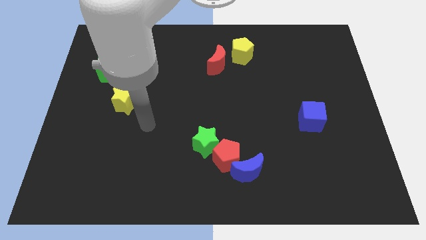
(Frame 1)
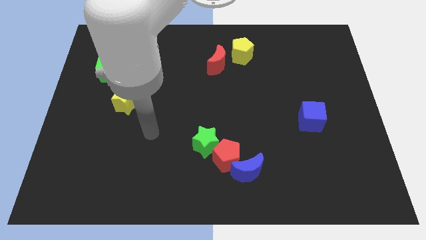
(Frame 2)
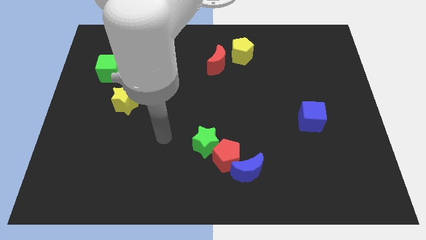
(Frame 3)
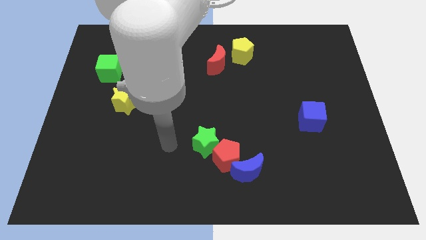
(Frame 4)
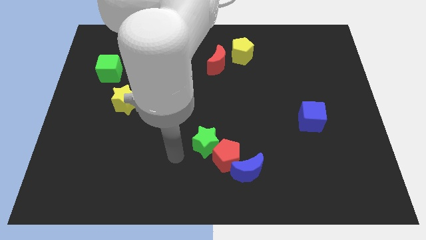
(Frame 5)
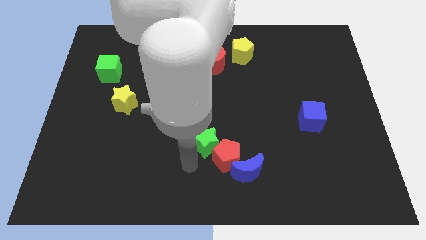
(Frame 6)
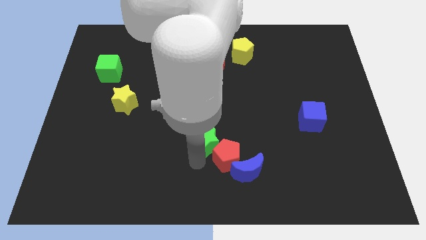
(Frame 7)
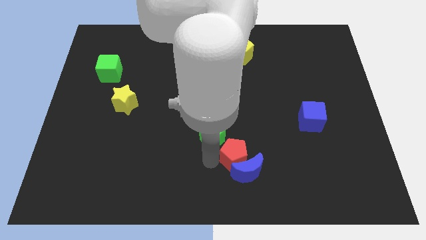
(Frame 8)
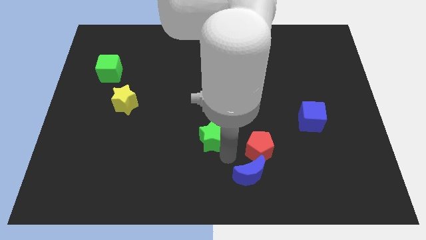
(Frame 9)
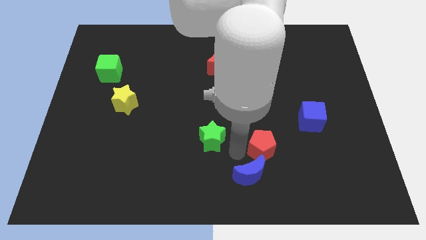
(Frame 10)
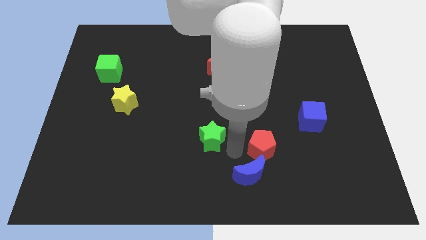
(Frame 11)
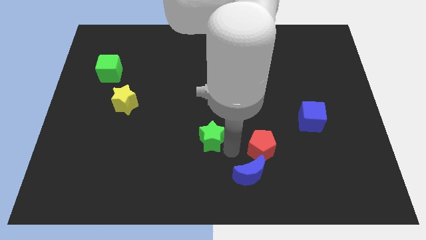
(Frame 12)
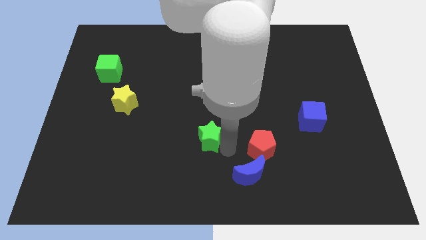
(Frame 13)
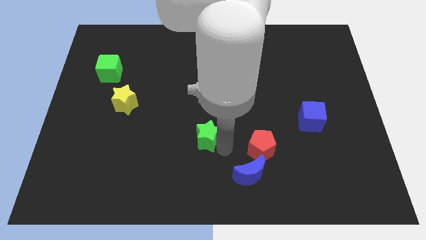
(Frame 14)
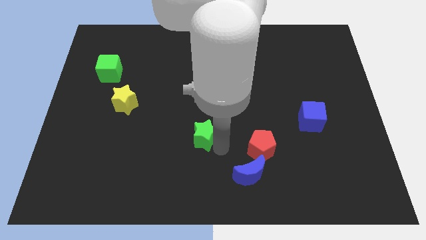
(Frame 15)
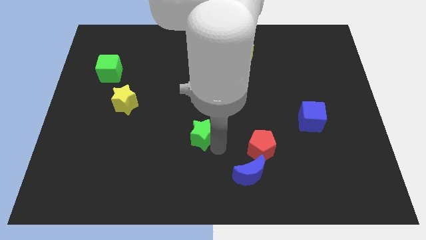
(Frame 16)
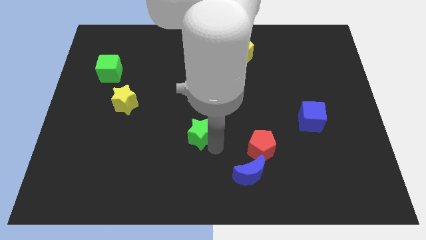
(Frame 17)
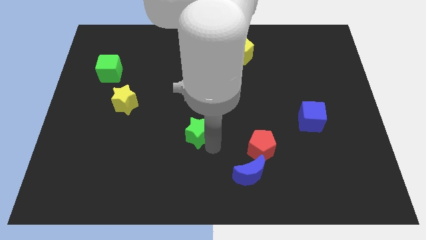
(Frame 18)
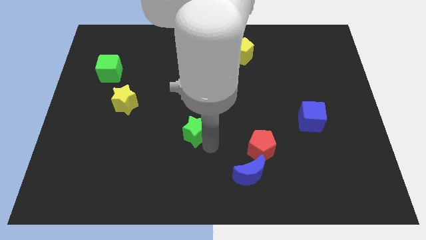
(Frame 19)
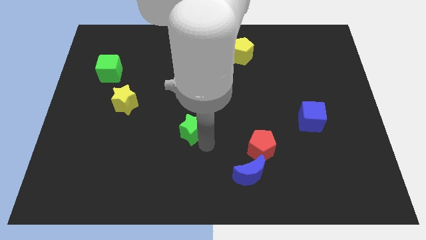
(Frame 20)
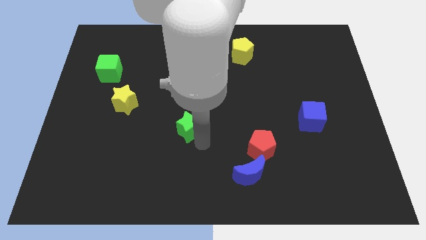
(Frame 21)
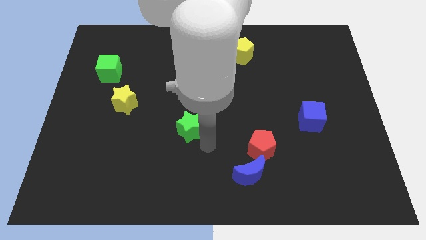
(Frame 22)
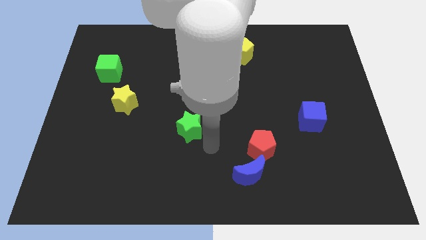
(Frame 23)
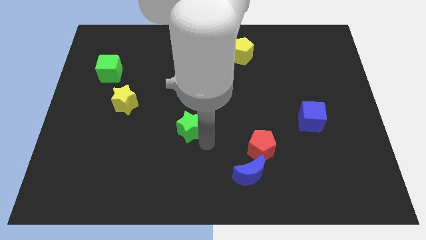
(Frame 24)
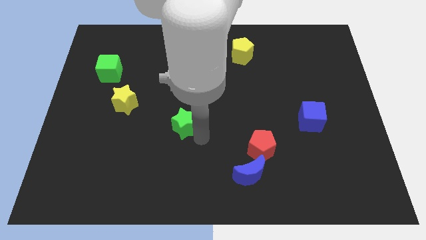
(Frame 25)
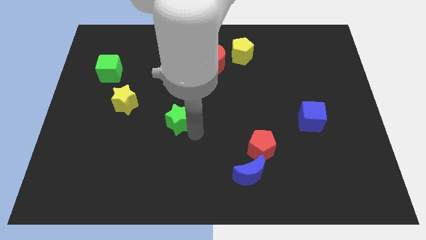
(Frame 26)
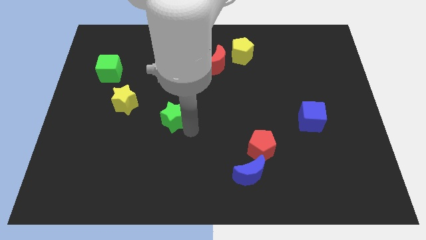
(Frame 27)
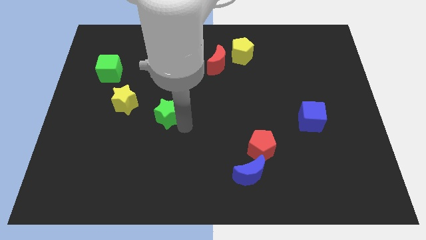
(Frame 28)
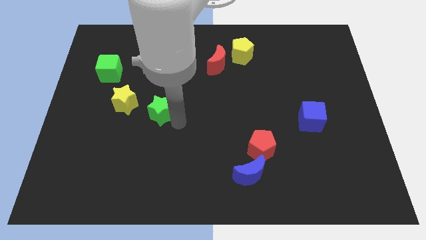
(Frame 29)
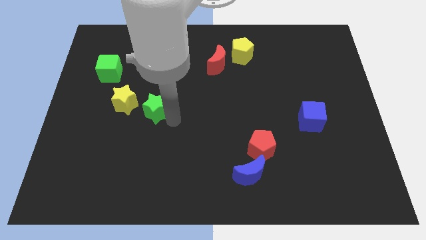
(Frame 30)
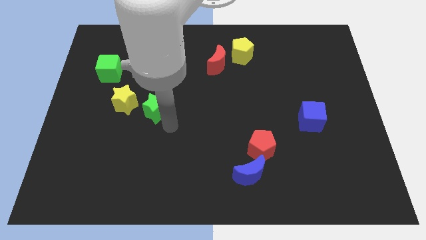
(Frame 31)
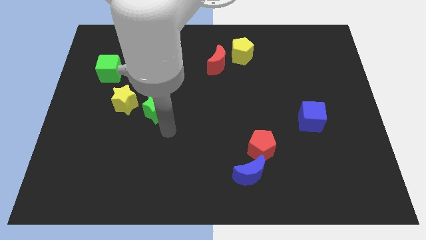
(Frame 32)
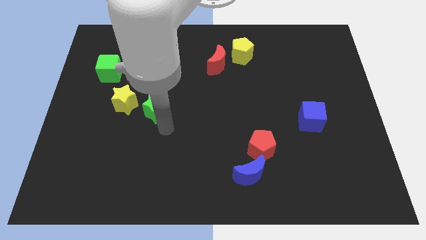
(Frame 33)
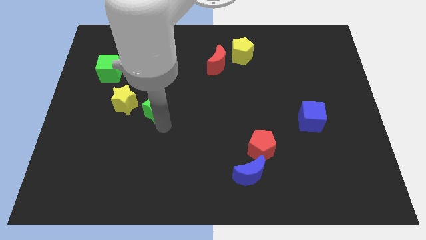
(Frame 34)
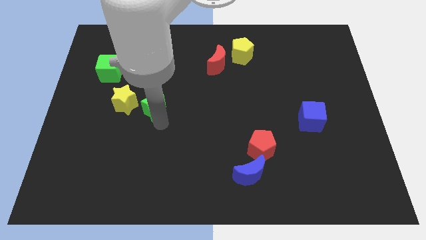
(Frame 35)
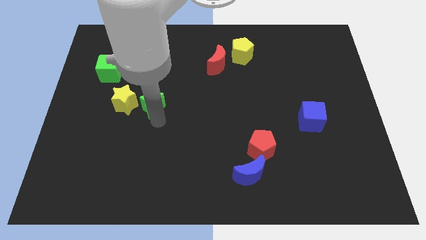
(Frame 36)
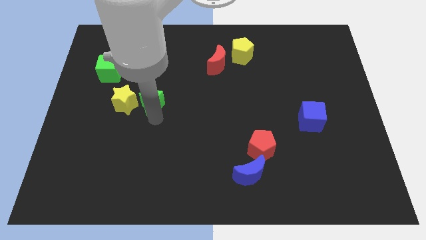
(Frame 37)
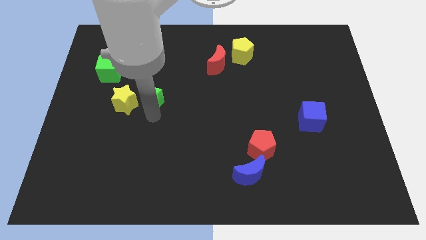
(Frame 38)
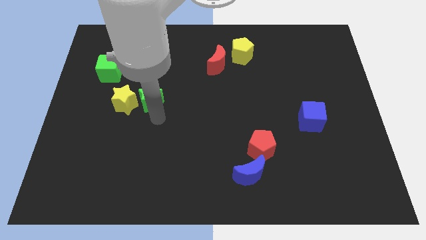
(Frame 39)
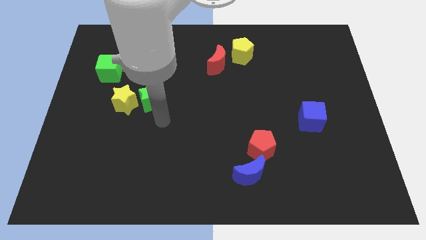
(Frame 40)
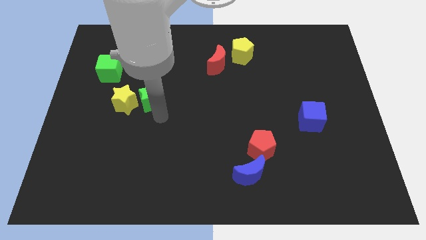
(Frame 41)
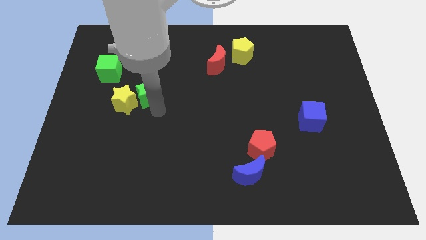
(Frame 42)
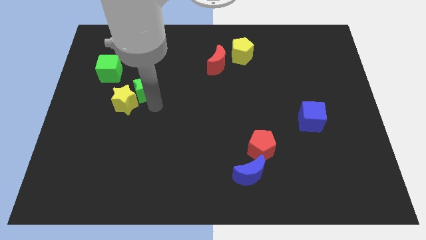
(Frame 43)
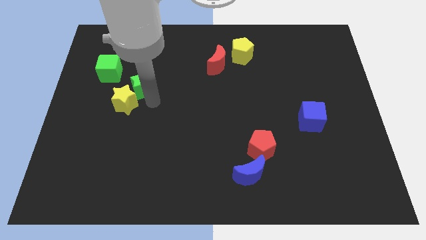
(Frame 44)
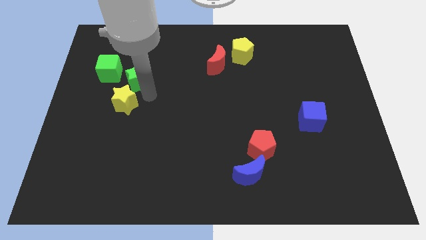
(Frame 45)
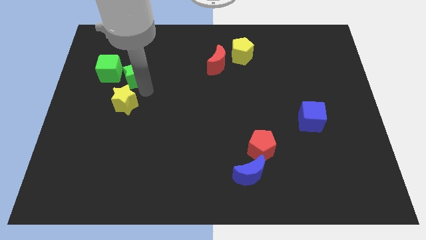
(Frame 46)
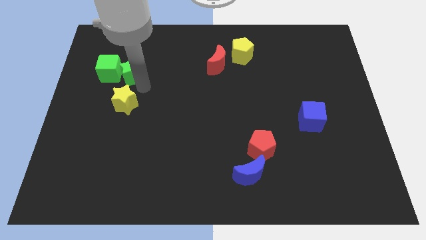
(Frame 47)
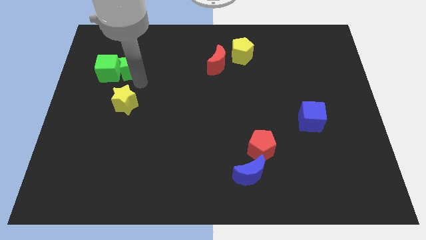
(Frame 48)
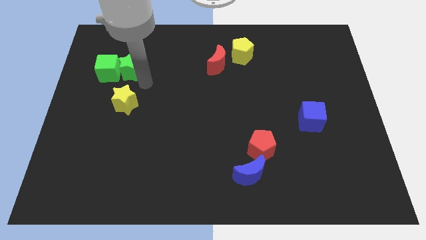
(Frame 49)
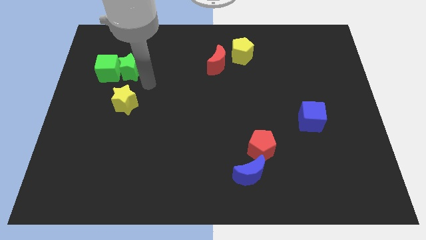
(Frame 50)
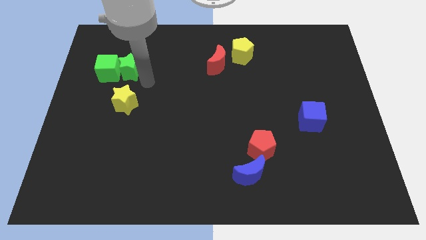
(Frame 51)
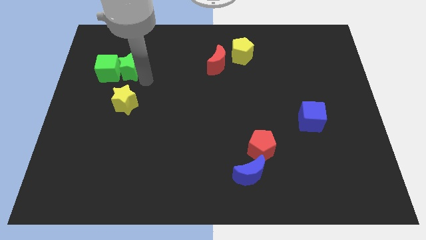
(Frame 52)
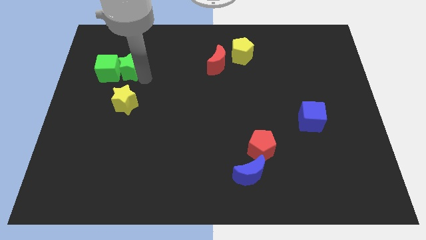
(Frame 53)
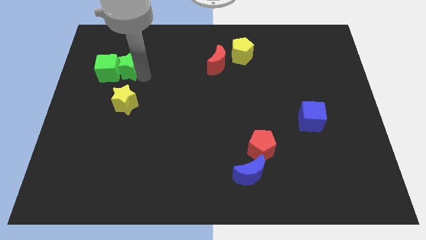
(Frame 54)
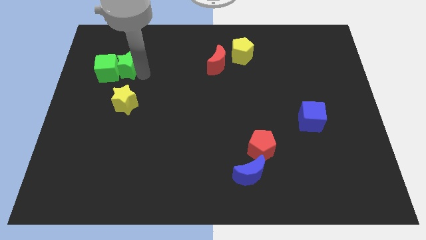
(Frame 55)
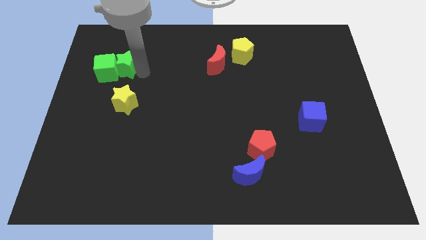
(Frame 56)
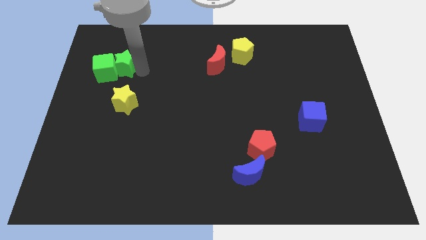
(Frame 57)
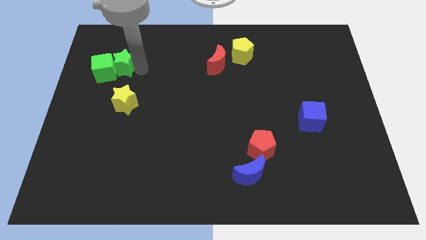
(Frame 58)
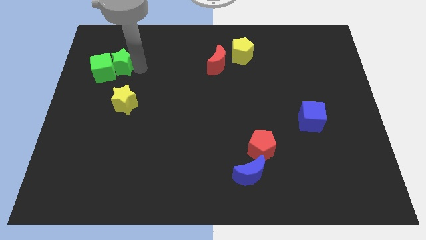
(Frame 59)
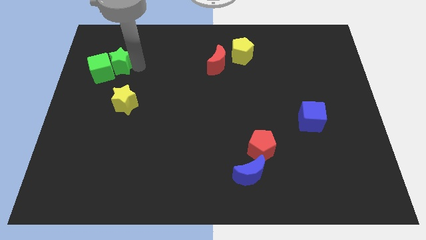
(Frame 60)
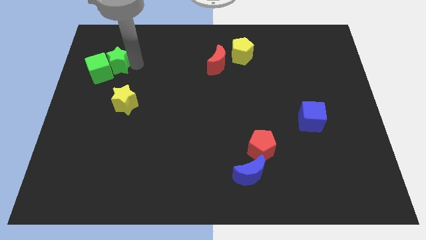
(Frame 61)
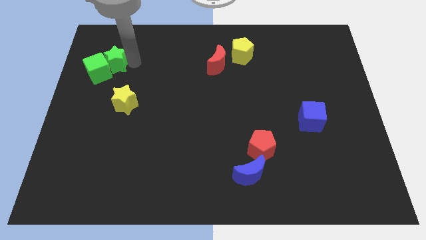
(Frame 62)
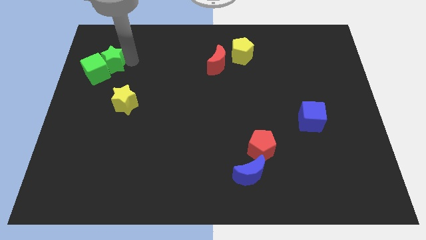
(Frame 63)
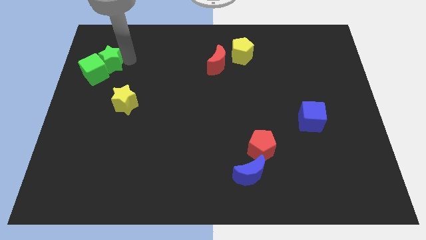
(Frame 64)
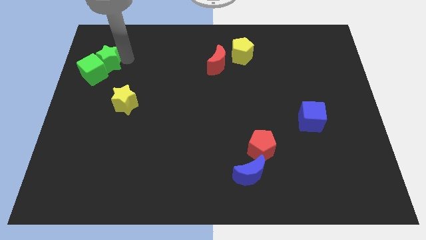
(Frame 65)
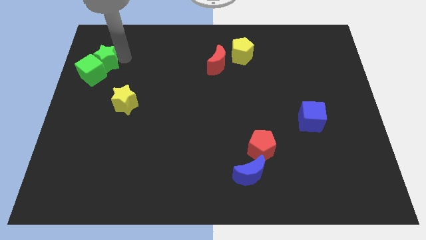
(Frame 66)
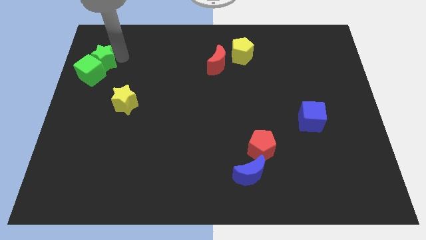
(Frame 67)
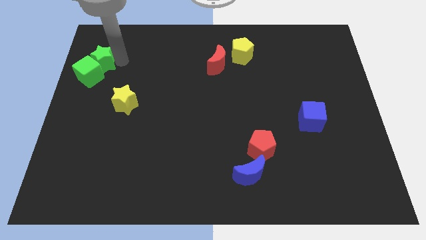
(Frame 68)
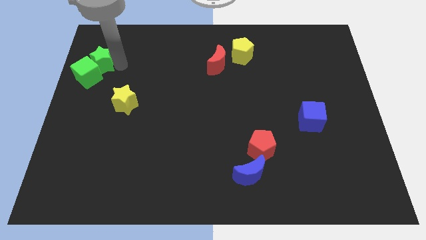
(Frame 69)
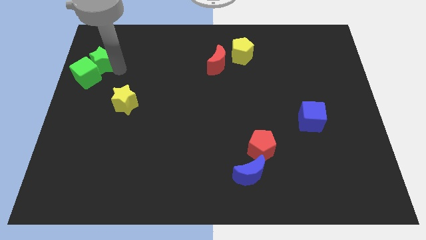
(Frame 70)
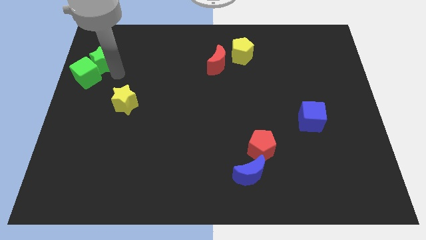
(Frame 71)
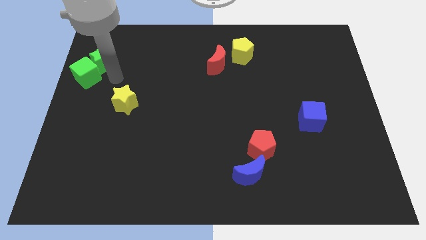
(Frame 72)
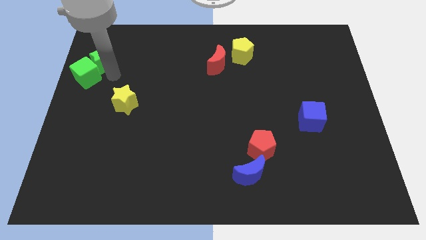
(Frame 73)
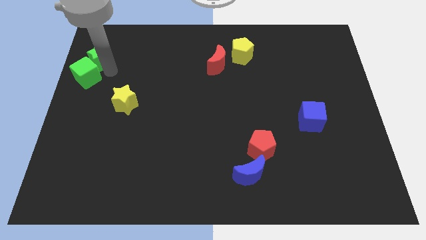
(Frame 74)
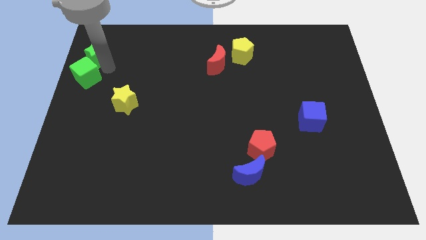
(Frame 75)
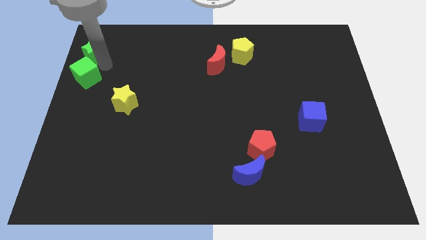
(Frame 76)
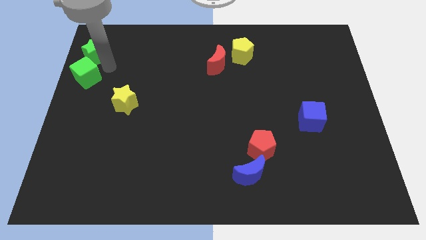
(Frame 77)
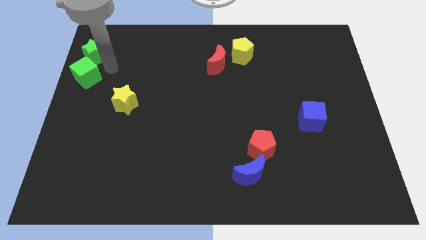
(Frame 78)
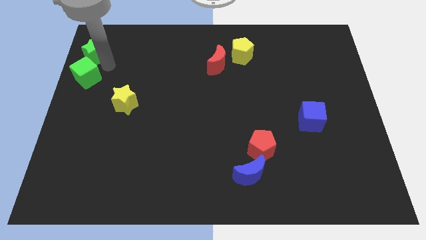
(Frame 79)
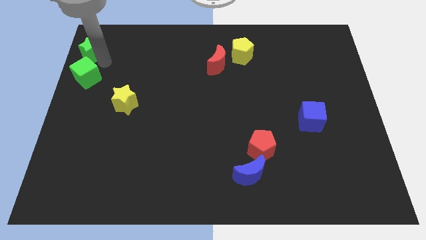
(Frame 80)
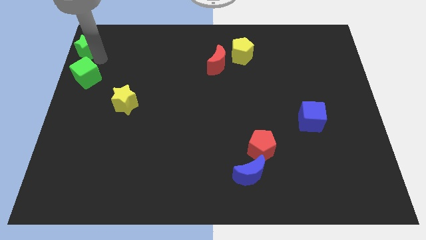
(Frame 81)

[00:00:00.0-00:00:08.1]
slide the green star to the top left
